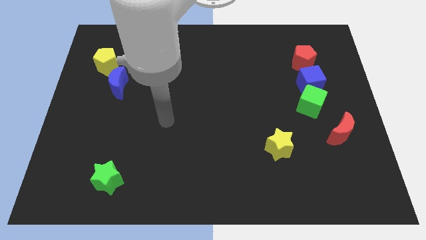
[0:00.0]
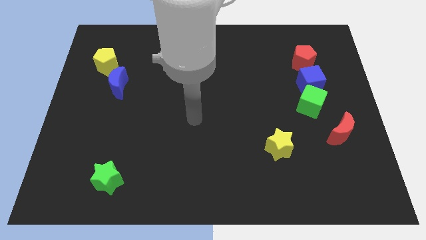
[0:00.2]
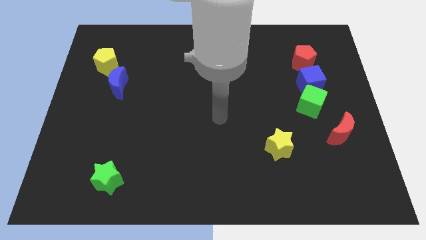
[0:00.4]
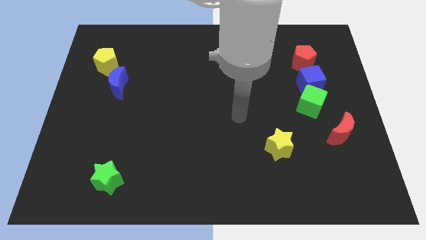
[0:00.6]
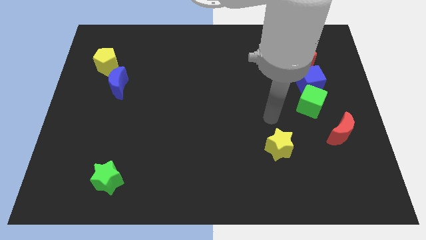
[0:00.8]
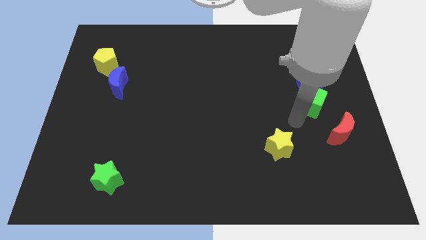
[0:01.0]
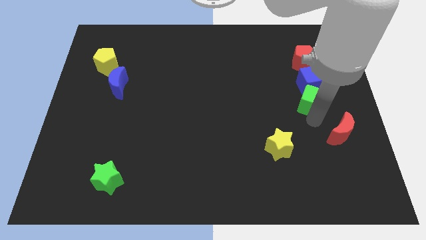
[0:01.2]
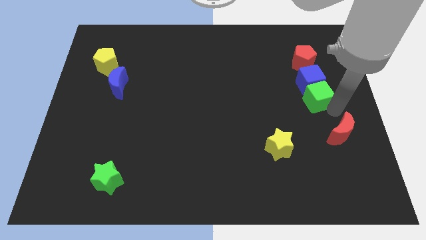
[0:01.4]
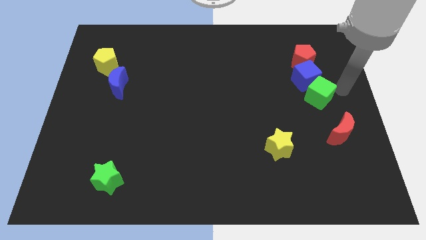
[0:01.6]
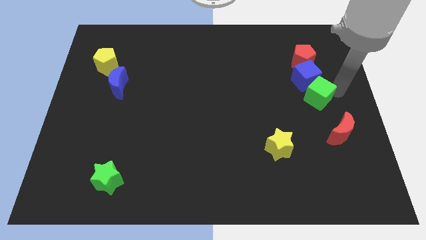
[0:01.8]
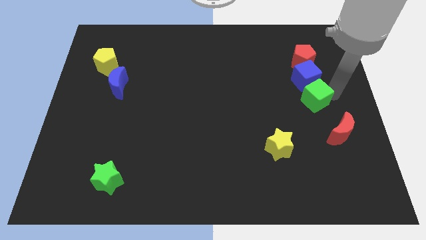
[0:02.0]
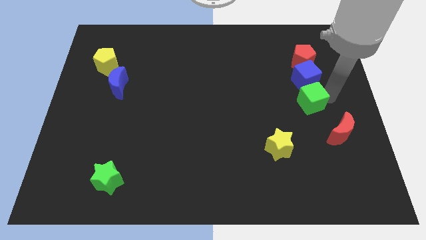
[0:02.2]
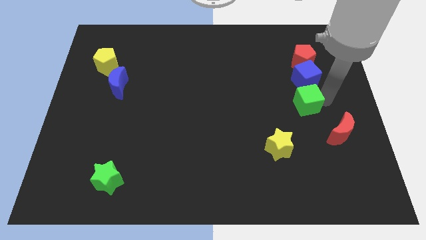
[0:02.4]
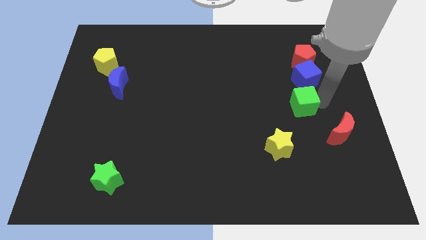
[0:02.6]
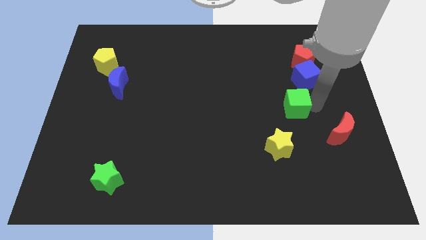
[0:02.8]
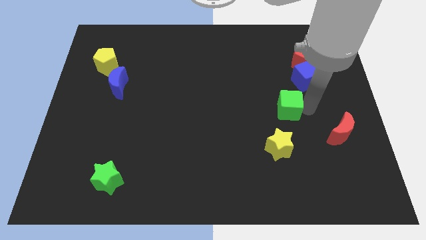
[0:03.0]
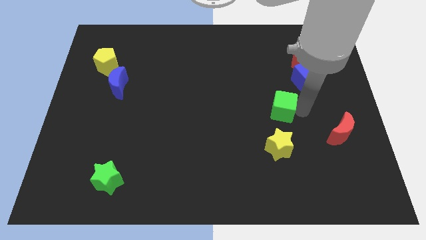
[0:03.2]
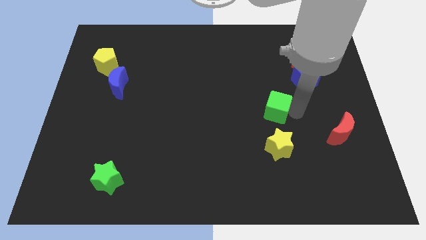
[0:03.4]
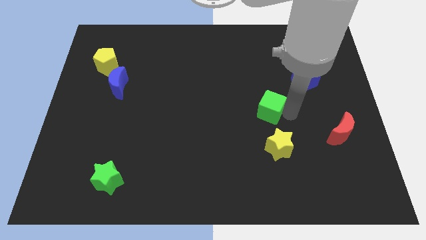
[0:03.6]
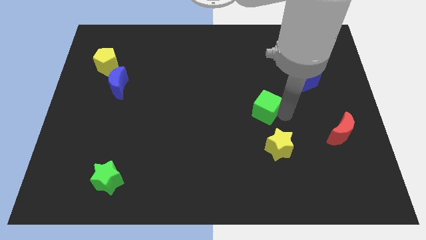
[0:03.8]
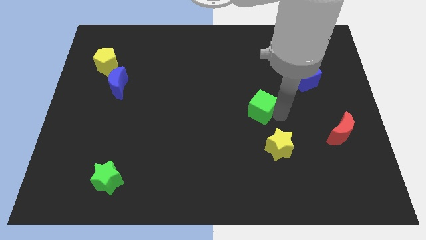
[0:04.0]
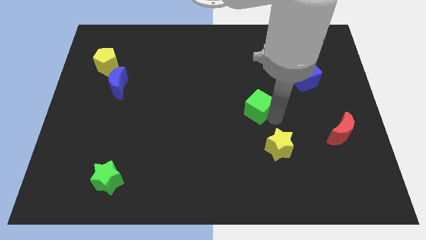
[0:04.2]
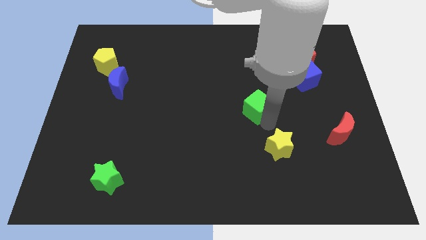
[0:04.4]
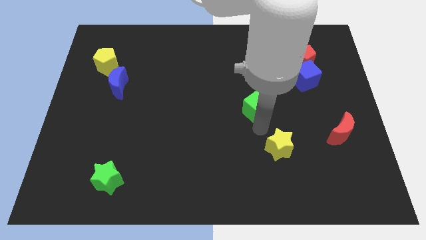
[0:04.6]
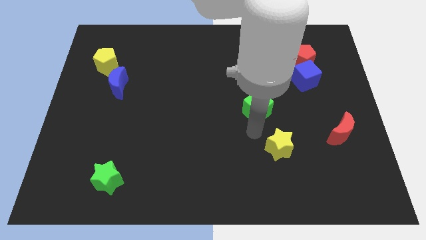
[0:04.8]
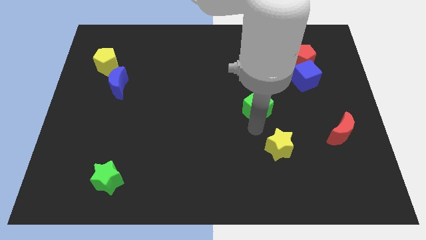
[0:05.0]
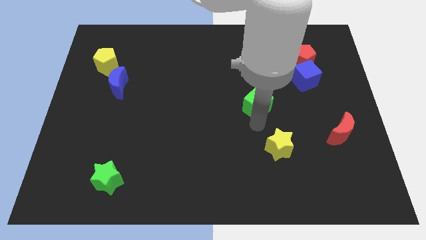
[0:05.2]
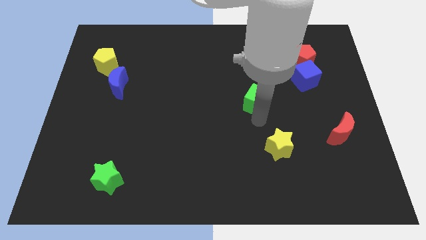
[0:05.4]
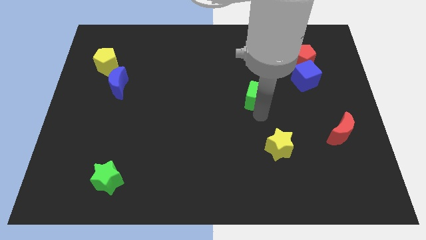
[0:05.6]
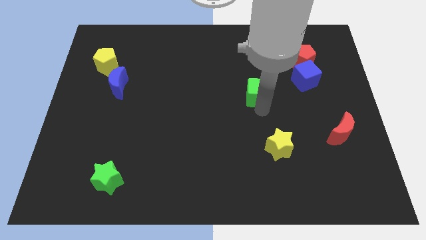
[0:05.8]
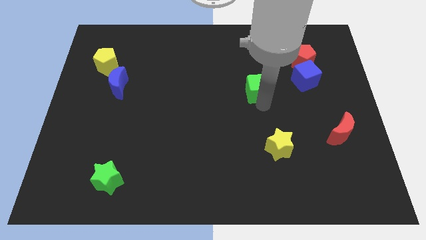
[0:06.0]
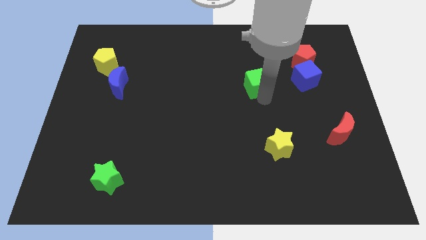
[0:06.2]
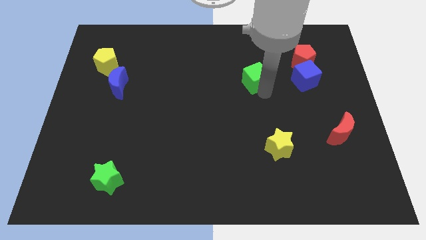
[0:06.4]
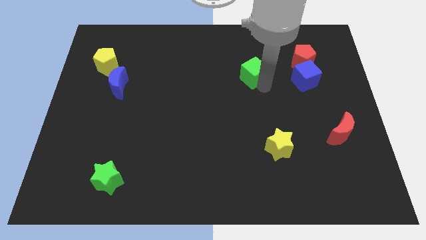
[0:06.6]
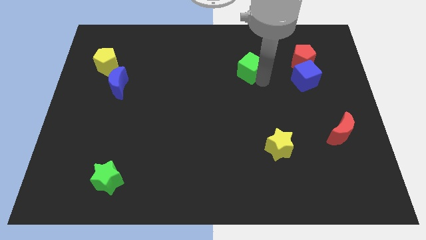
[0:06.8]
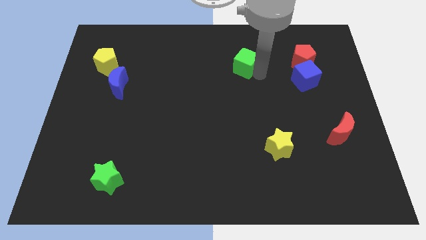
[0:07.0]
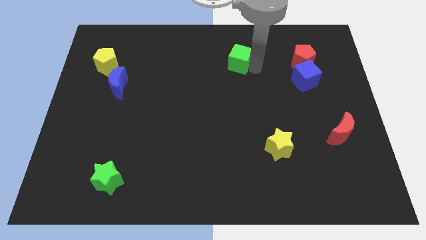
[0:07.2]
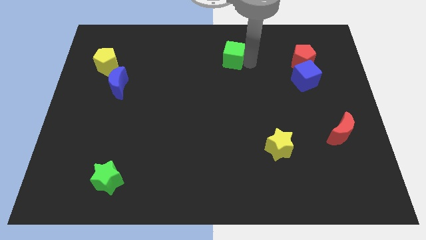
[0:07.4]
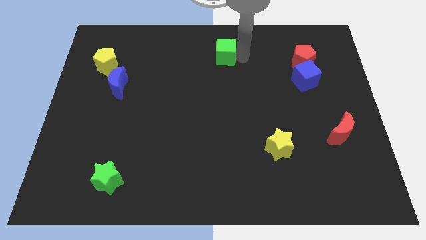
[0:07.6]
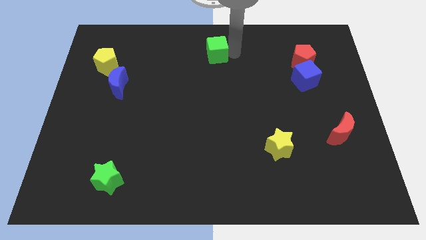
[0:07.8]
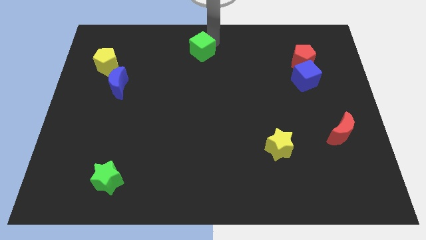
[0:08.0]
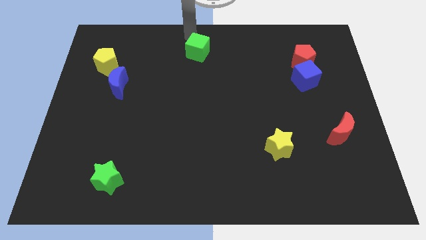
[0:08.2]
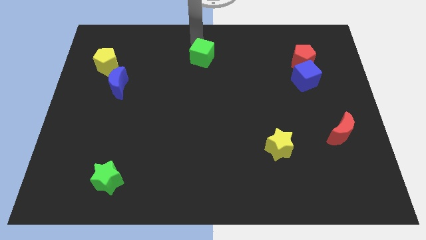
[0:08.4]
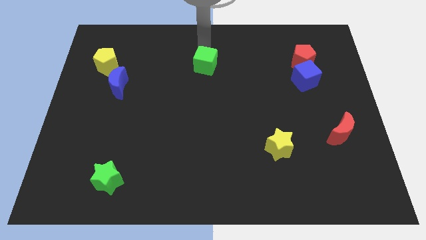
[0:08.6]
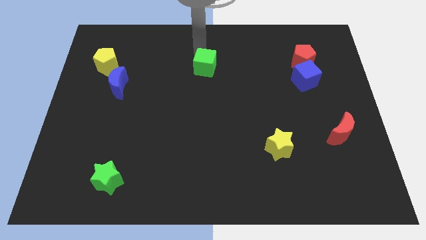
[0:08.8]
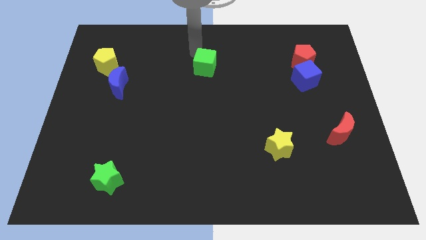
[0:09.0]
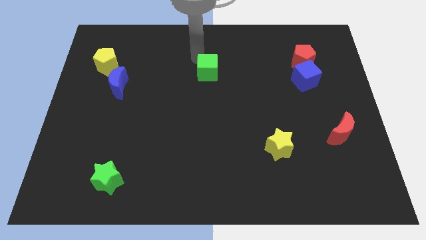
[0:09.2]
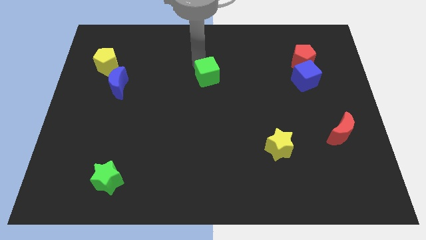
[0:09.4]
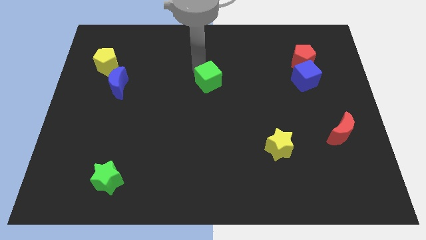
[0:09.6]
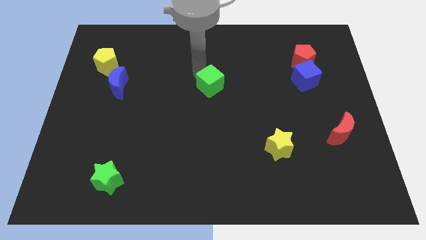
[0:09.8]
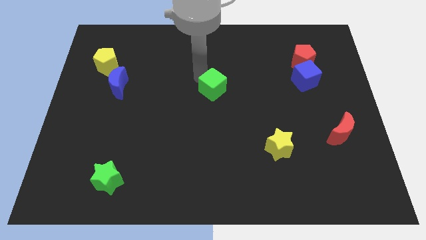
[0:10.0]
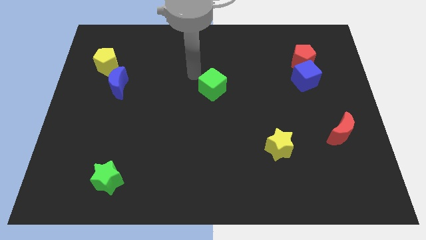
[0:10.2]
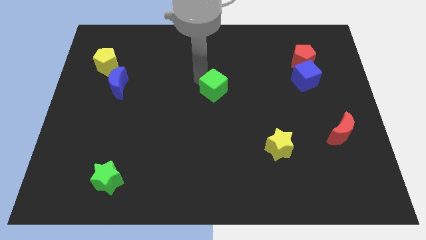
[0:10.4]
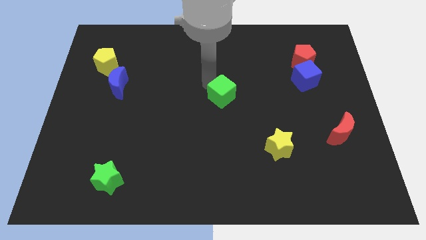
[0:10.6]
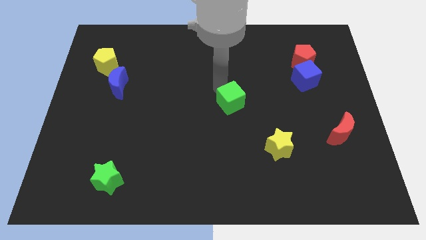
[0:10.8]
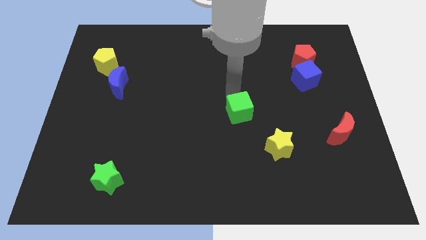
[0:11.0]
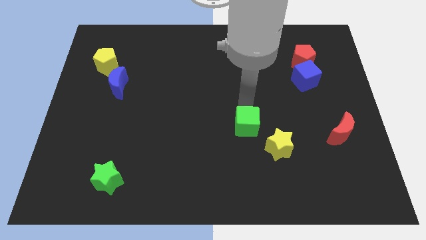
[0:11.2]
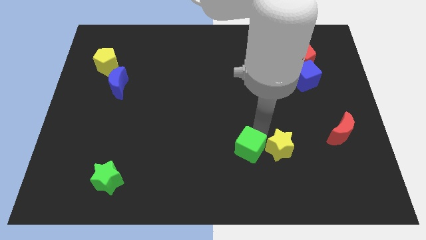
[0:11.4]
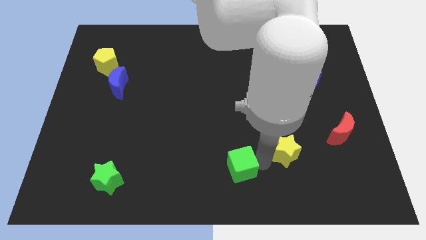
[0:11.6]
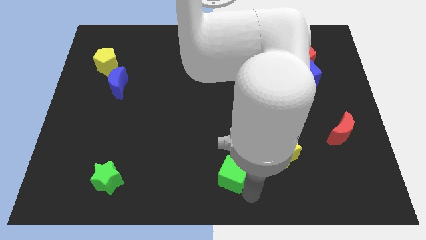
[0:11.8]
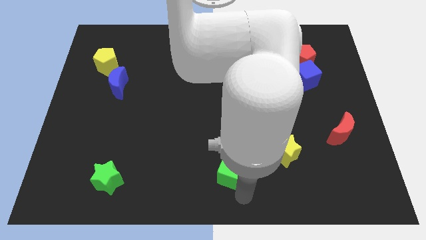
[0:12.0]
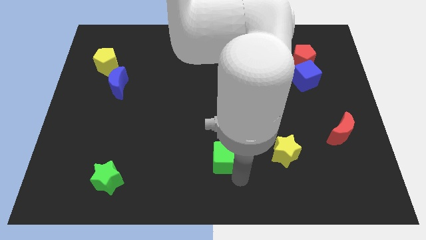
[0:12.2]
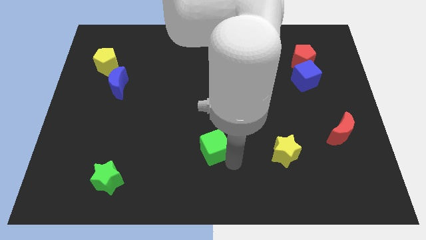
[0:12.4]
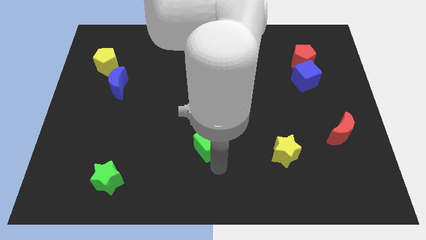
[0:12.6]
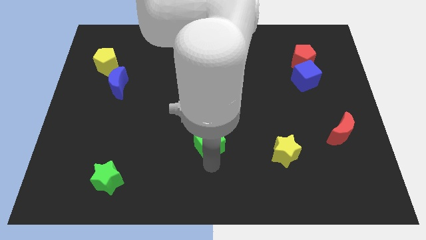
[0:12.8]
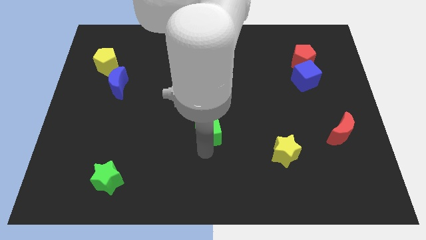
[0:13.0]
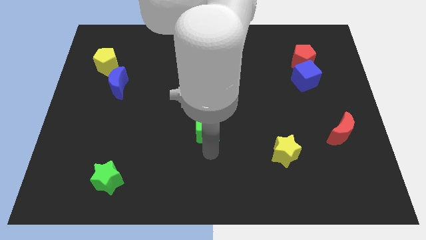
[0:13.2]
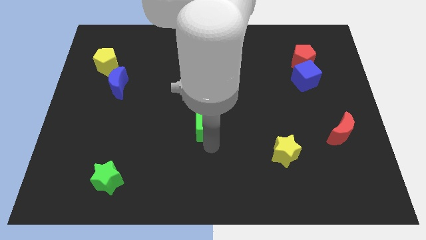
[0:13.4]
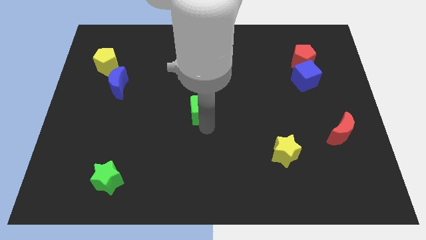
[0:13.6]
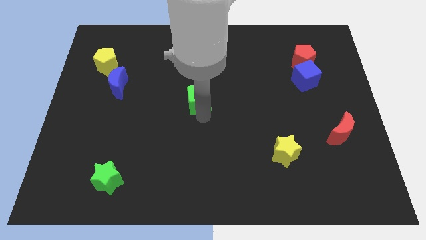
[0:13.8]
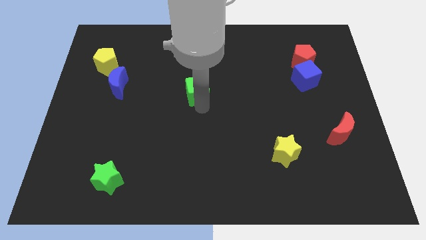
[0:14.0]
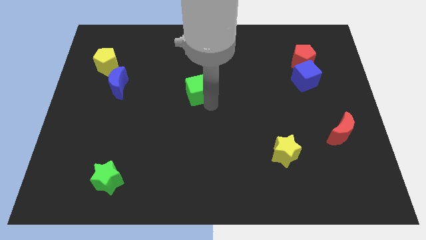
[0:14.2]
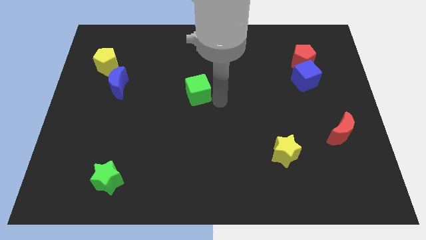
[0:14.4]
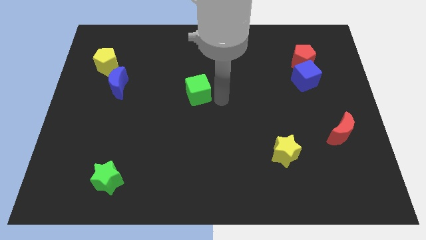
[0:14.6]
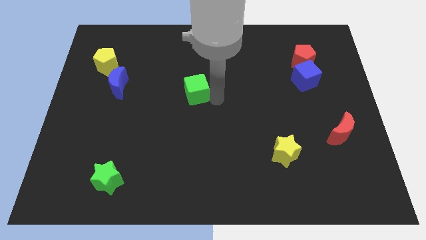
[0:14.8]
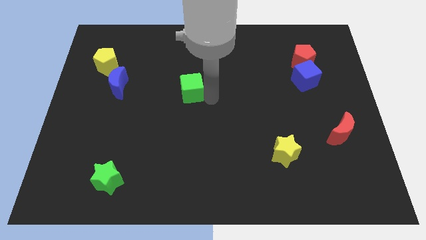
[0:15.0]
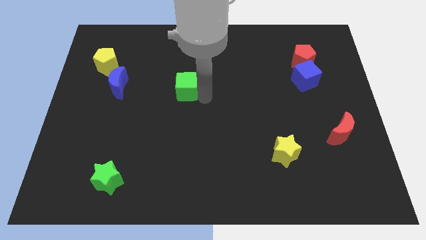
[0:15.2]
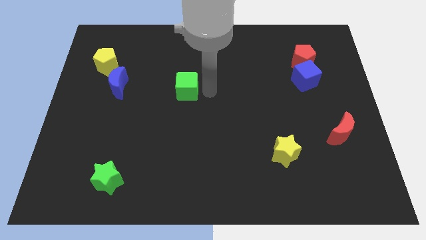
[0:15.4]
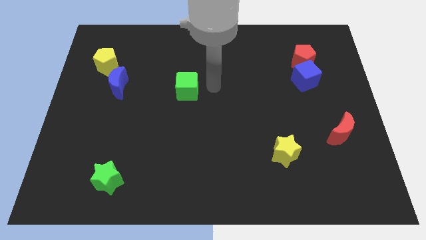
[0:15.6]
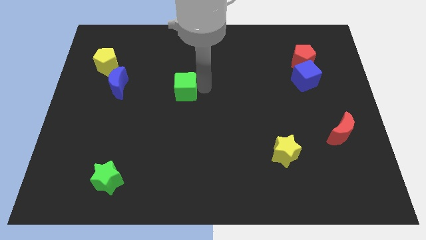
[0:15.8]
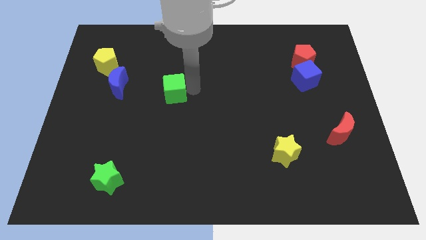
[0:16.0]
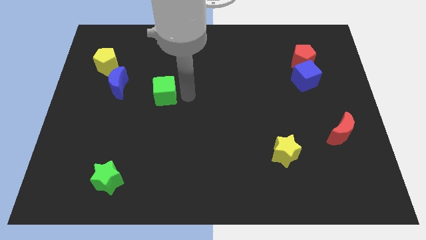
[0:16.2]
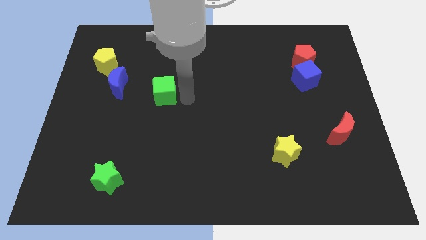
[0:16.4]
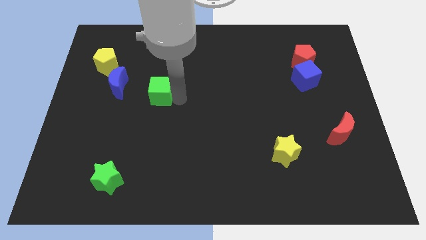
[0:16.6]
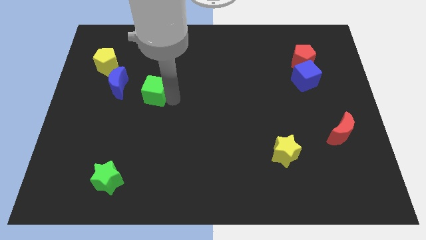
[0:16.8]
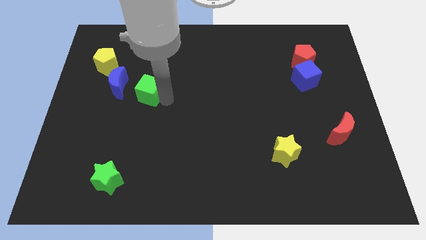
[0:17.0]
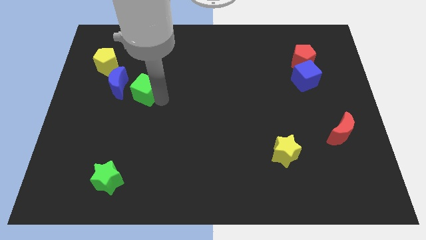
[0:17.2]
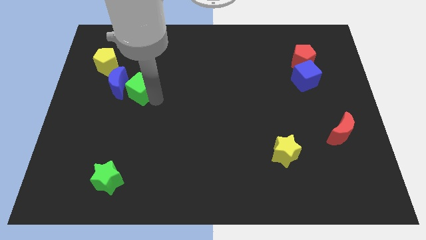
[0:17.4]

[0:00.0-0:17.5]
move the green cube next to the blue moon
